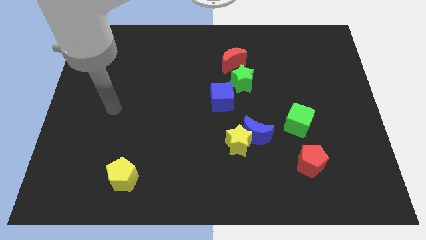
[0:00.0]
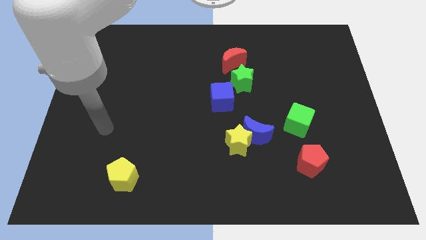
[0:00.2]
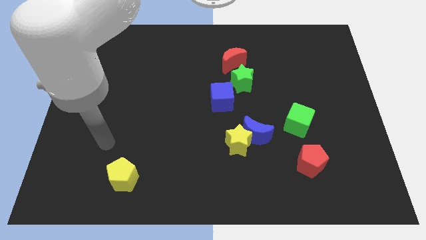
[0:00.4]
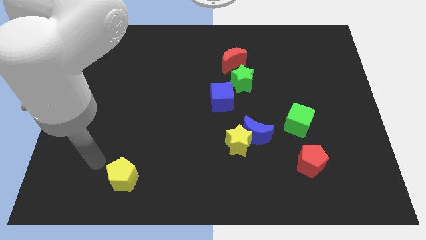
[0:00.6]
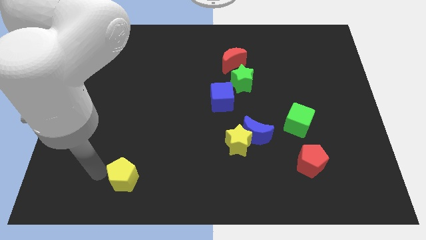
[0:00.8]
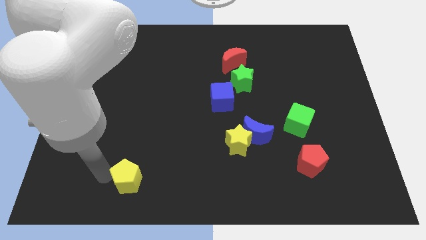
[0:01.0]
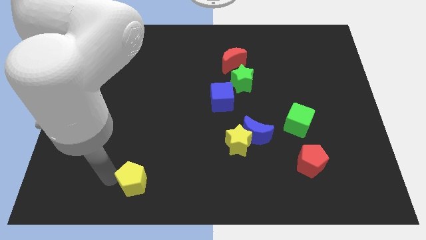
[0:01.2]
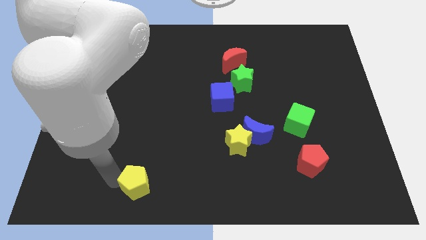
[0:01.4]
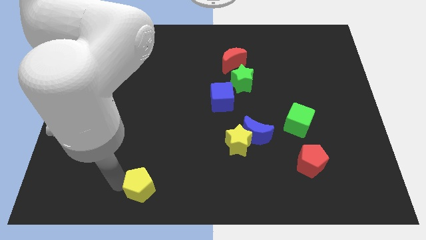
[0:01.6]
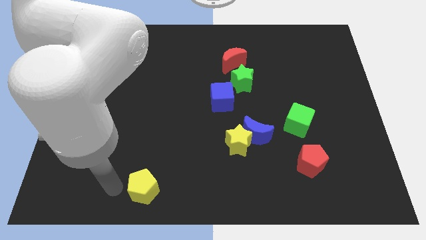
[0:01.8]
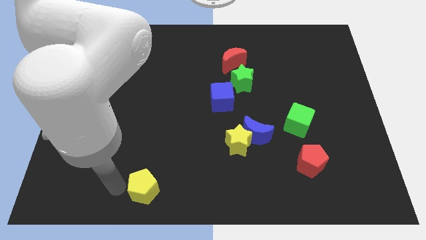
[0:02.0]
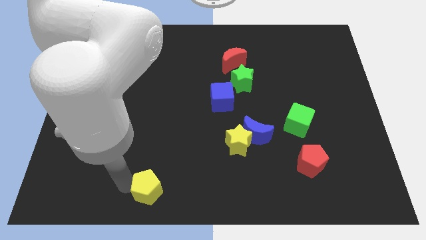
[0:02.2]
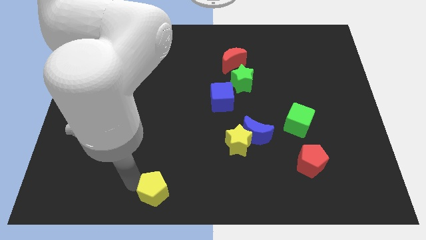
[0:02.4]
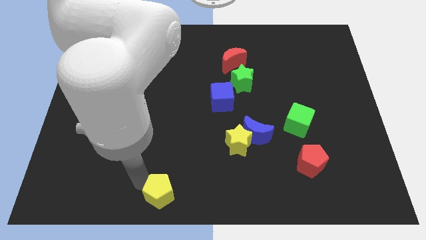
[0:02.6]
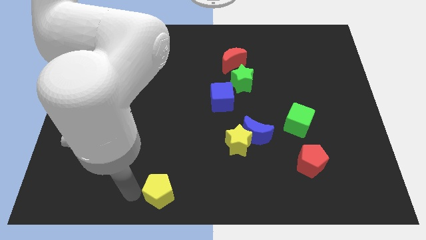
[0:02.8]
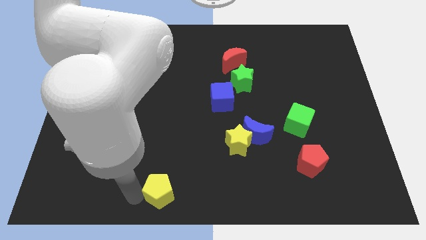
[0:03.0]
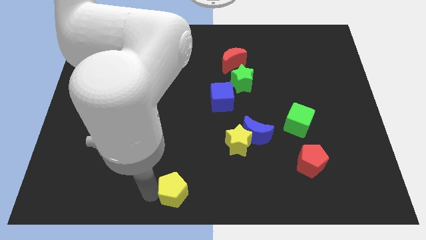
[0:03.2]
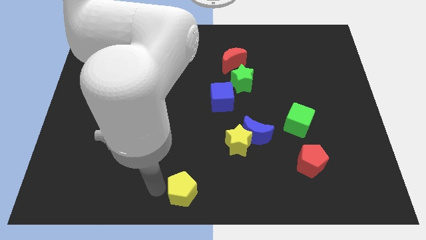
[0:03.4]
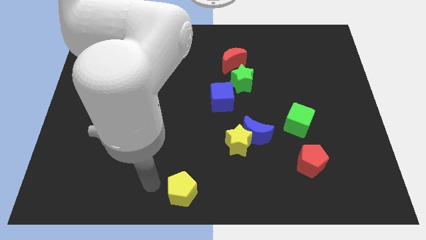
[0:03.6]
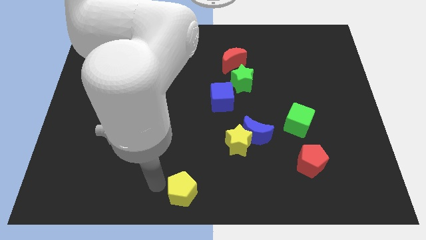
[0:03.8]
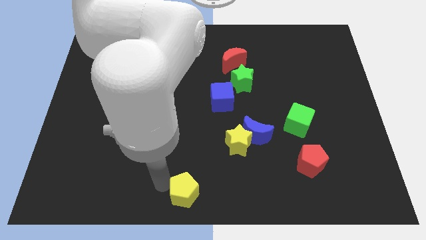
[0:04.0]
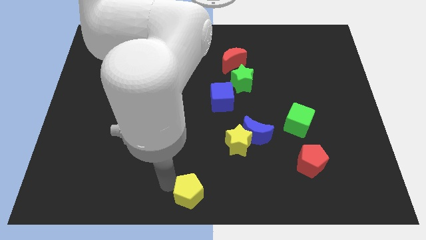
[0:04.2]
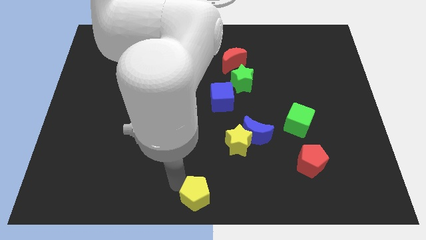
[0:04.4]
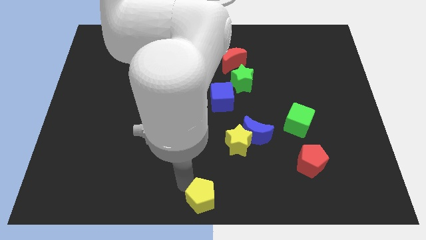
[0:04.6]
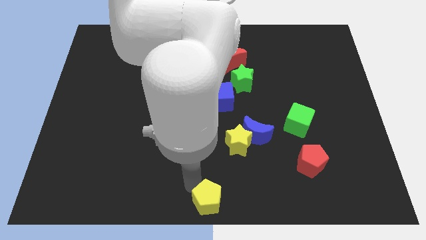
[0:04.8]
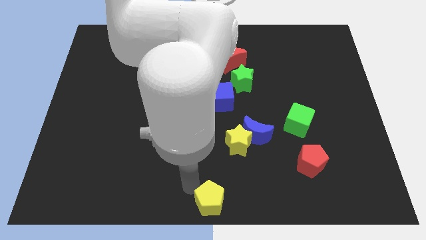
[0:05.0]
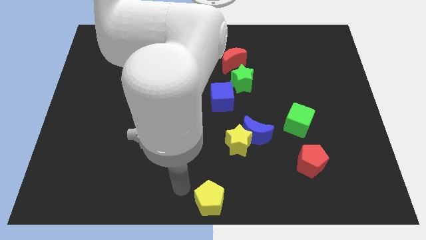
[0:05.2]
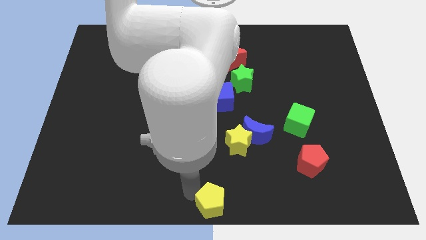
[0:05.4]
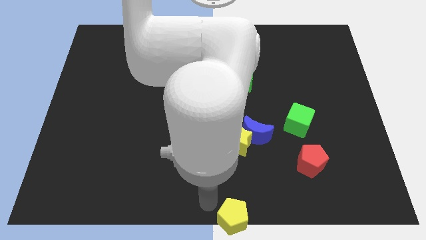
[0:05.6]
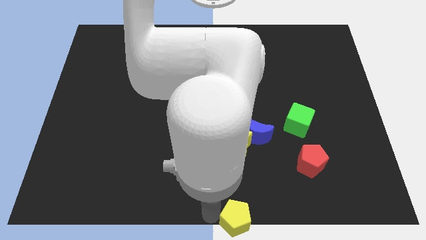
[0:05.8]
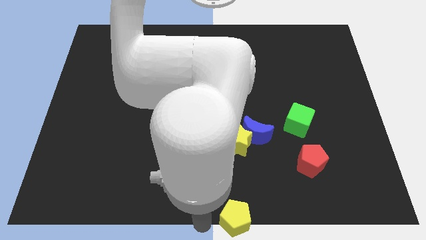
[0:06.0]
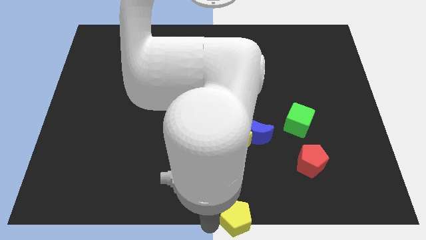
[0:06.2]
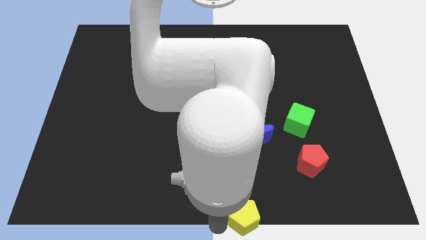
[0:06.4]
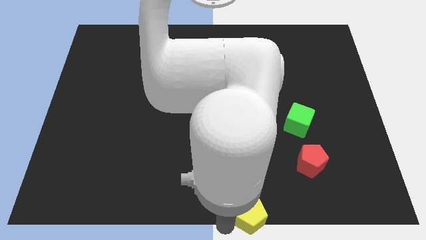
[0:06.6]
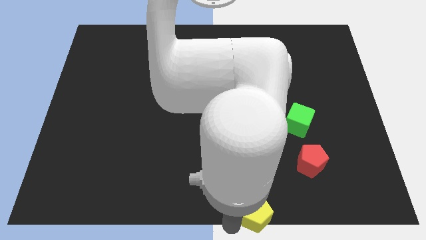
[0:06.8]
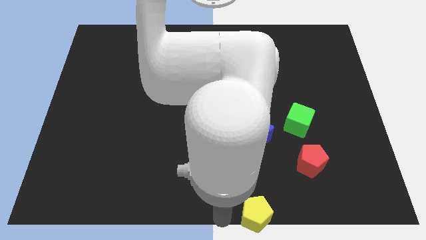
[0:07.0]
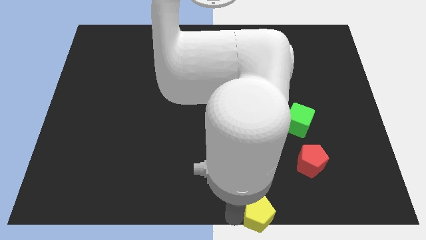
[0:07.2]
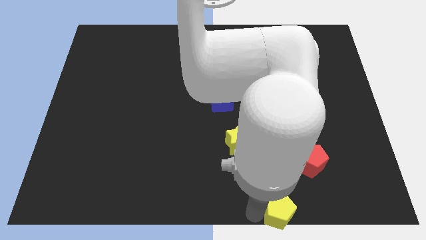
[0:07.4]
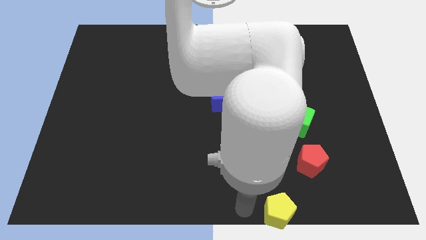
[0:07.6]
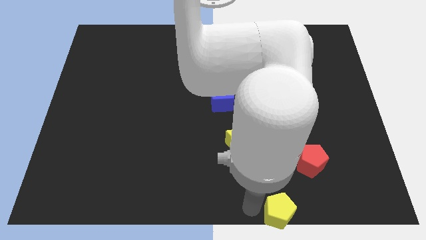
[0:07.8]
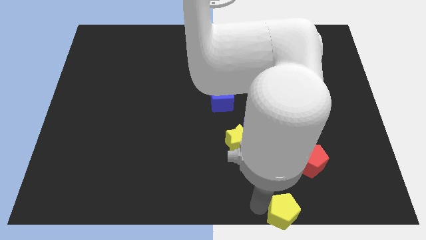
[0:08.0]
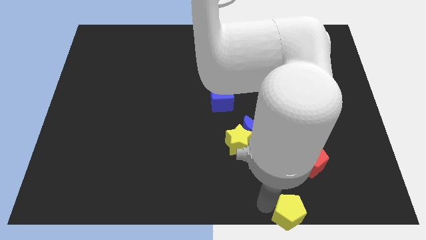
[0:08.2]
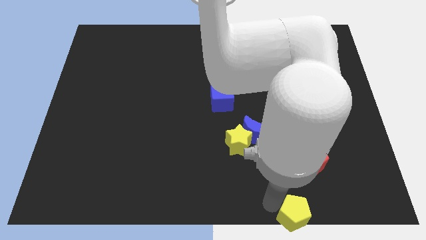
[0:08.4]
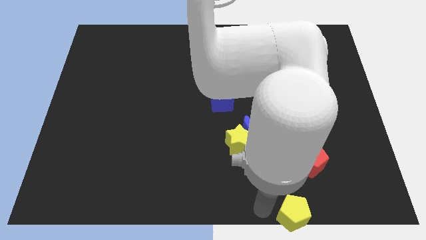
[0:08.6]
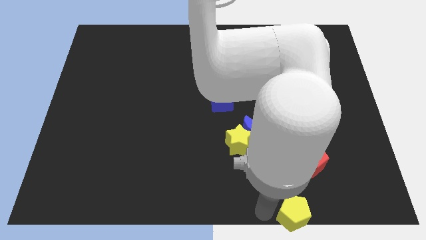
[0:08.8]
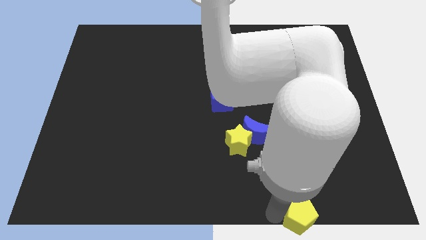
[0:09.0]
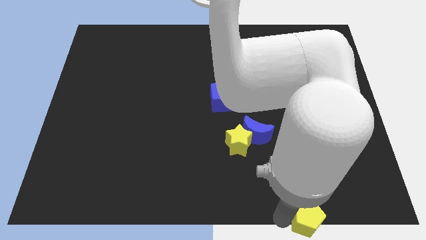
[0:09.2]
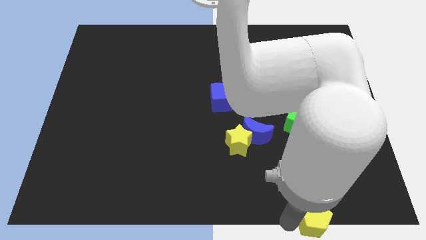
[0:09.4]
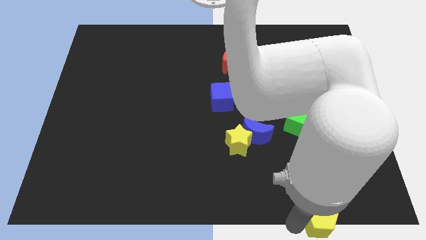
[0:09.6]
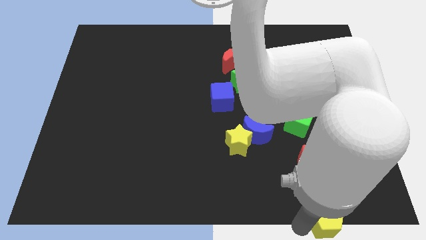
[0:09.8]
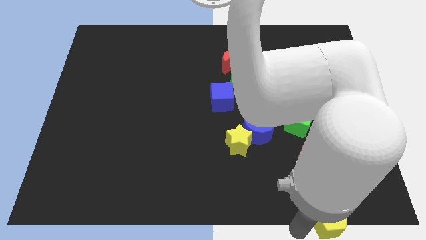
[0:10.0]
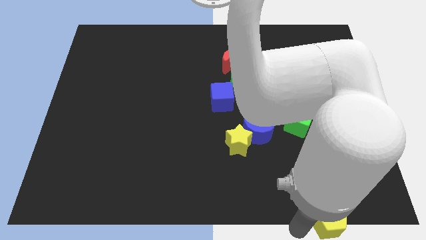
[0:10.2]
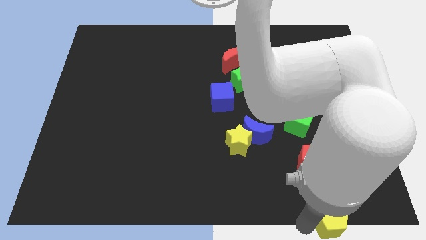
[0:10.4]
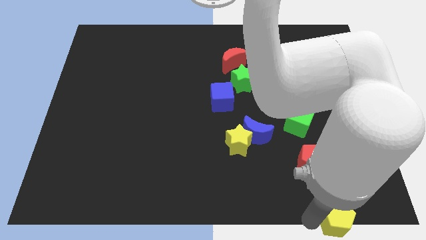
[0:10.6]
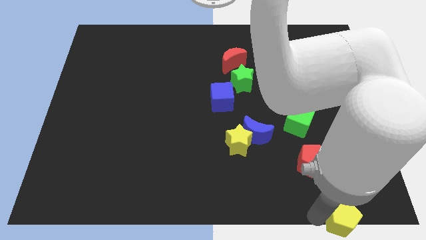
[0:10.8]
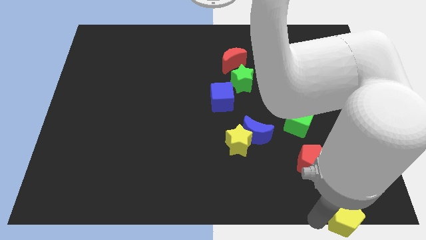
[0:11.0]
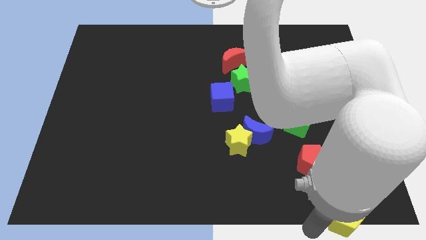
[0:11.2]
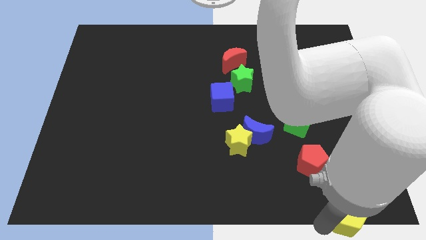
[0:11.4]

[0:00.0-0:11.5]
push the yellow pentagon to the bottom right

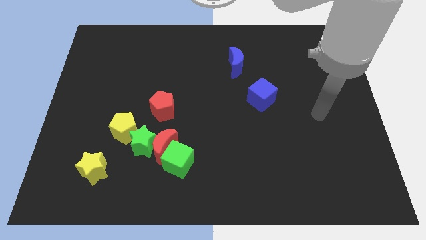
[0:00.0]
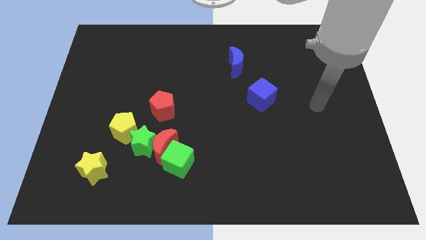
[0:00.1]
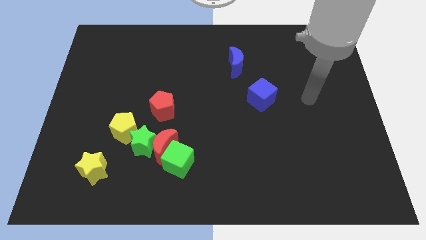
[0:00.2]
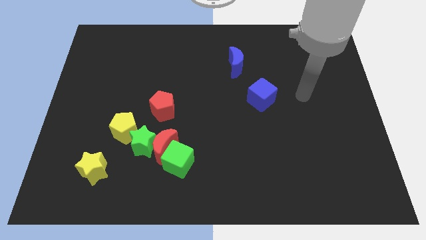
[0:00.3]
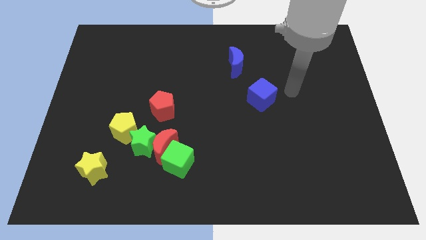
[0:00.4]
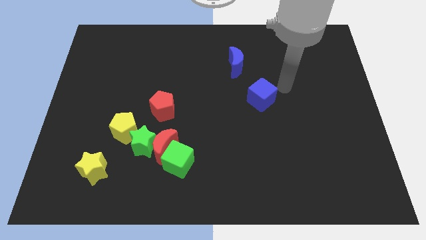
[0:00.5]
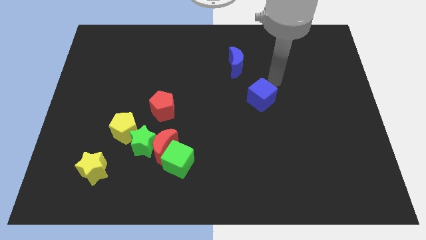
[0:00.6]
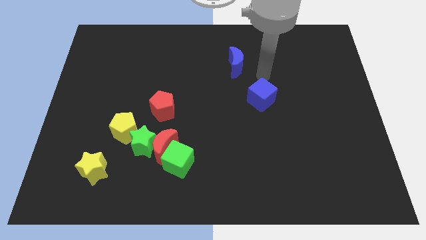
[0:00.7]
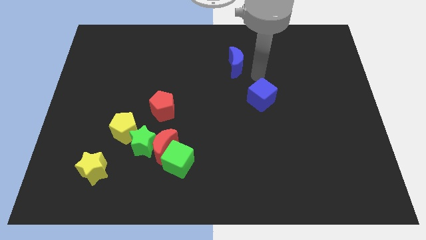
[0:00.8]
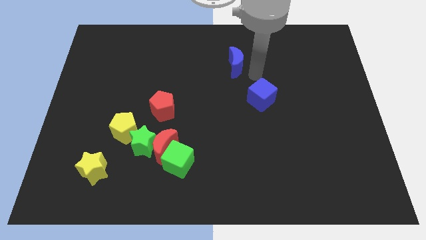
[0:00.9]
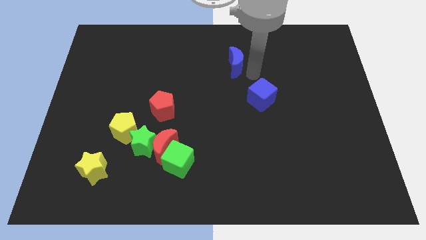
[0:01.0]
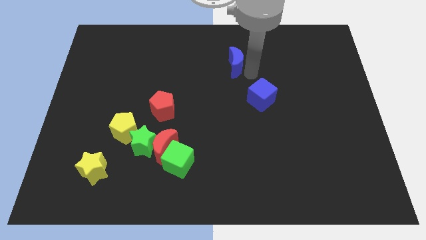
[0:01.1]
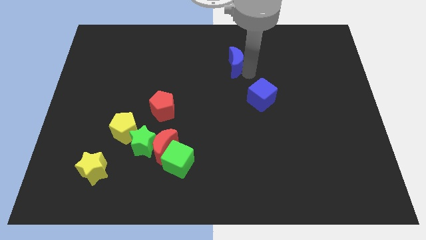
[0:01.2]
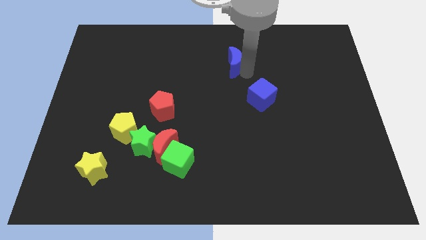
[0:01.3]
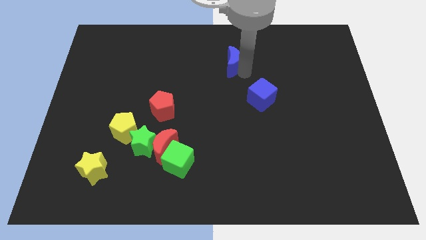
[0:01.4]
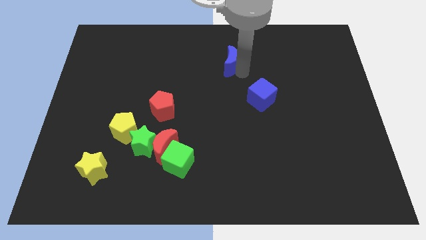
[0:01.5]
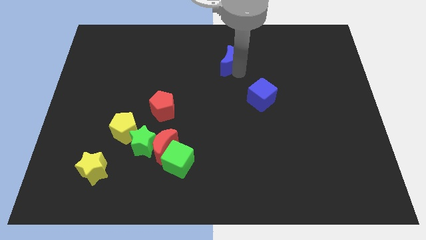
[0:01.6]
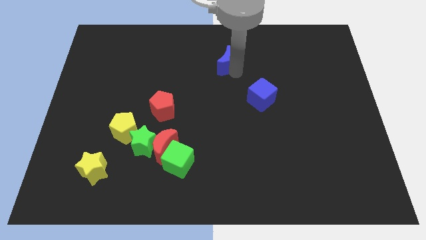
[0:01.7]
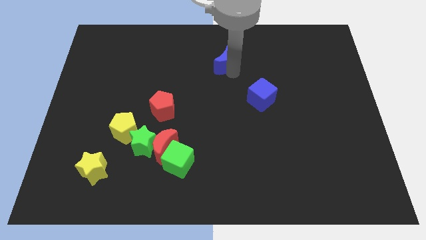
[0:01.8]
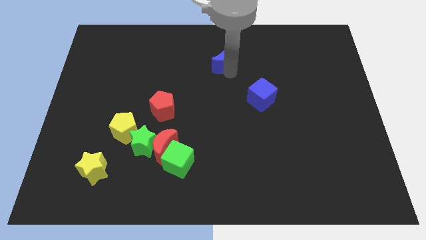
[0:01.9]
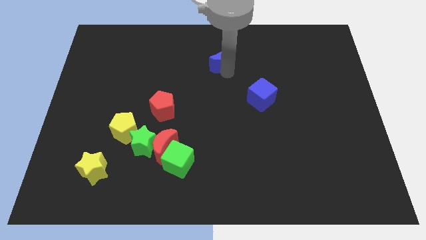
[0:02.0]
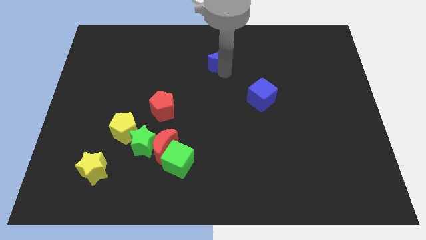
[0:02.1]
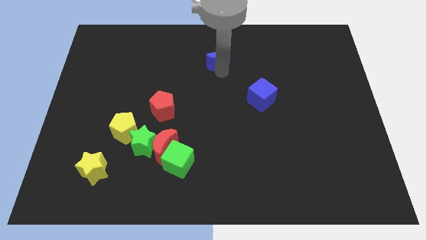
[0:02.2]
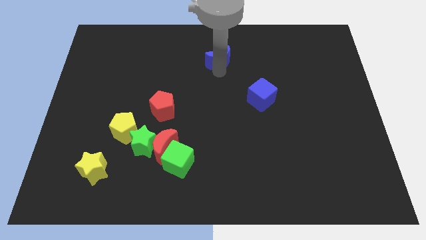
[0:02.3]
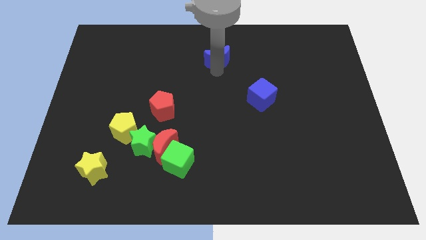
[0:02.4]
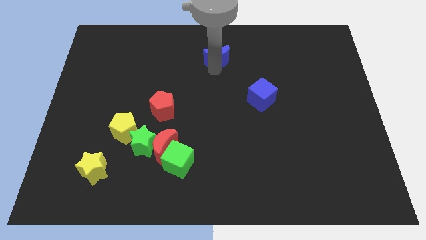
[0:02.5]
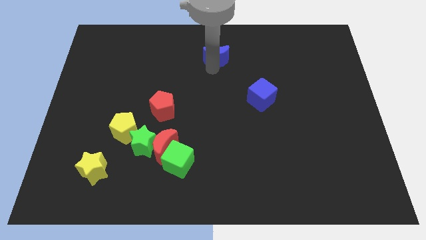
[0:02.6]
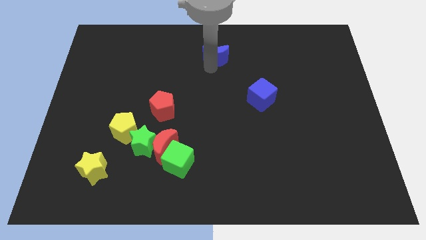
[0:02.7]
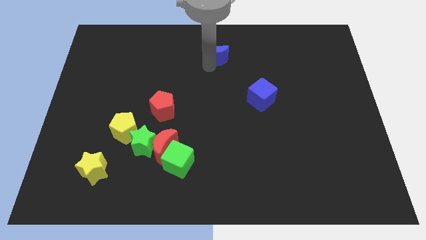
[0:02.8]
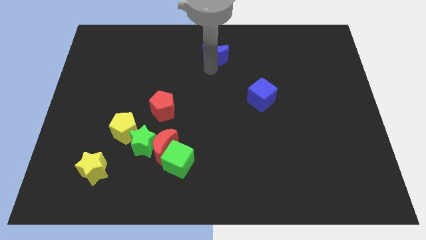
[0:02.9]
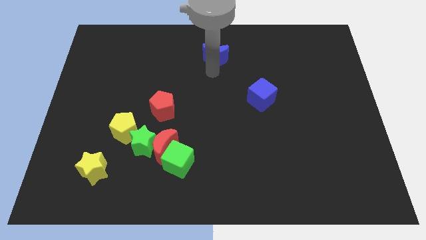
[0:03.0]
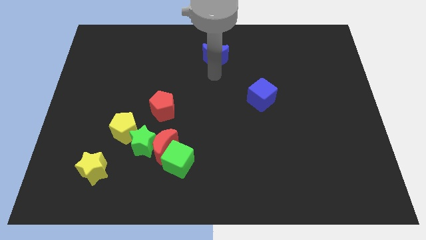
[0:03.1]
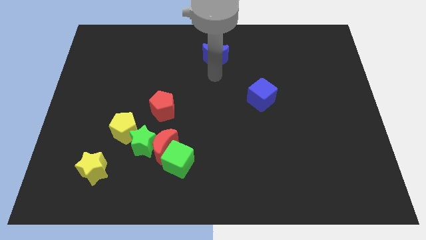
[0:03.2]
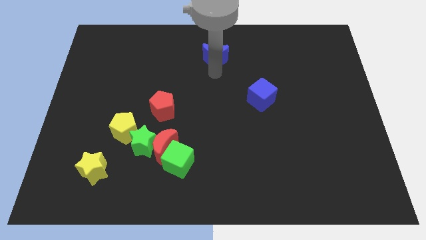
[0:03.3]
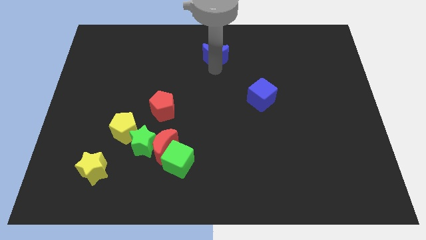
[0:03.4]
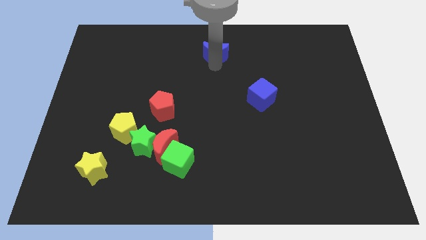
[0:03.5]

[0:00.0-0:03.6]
put the blue moon to the top side
